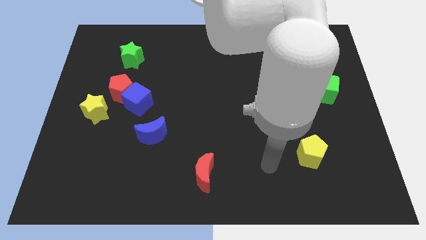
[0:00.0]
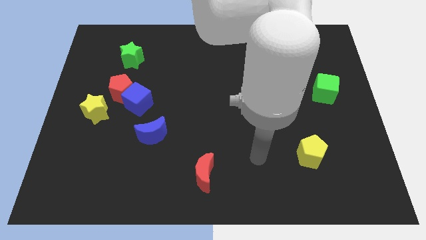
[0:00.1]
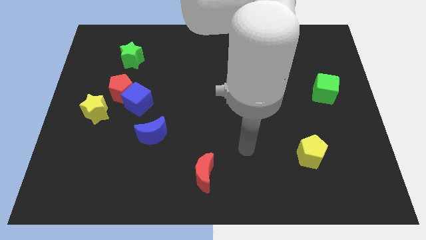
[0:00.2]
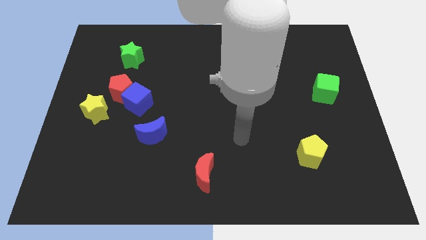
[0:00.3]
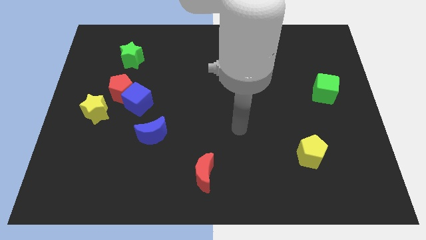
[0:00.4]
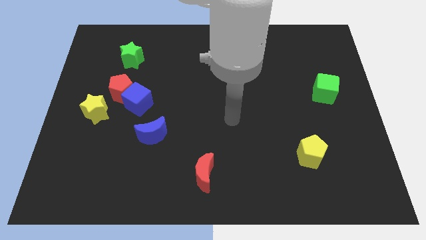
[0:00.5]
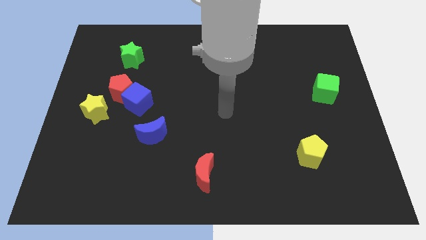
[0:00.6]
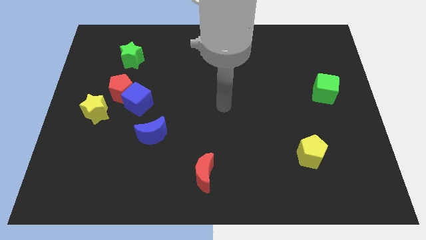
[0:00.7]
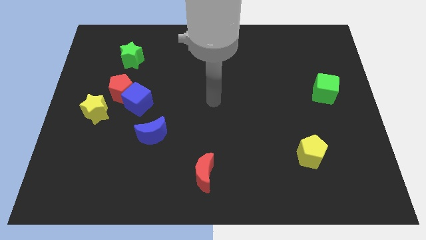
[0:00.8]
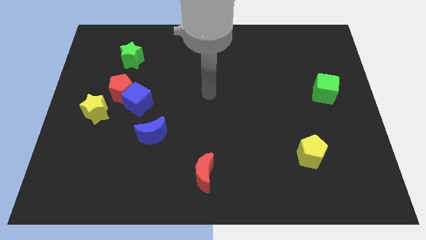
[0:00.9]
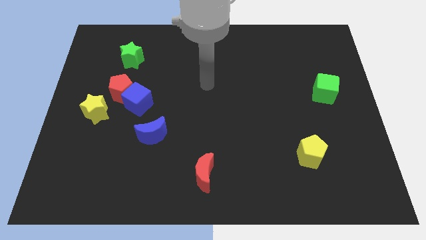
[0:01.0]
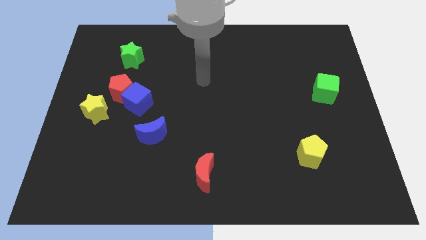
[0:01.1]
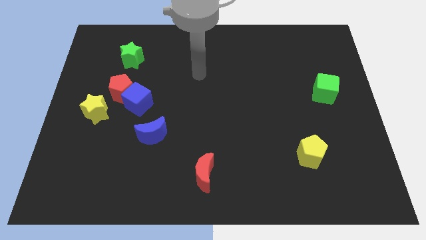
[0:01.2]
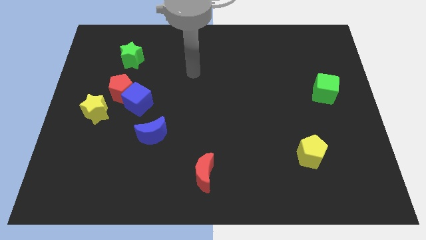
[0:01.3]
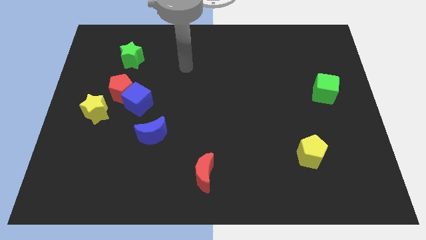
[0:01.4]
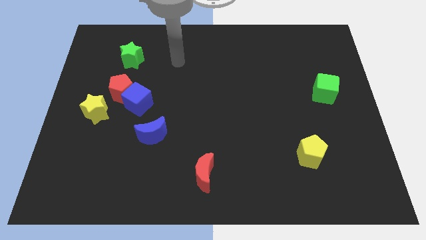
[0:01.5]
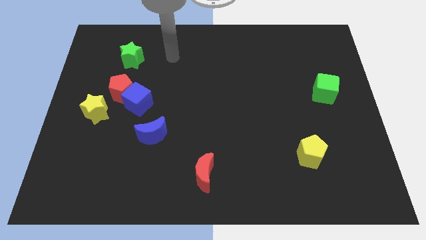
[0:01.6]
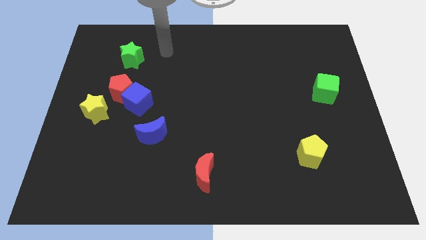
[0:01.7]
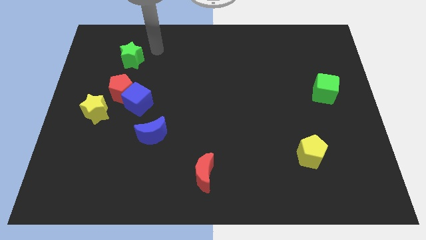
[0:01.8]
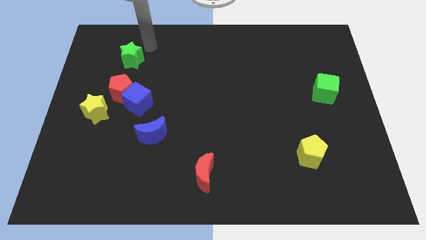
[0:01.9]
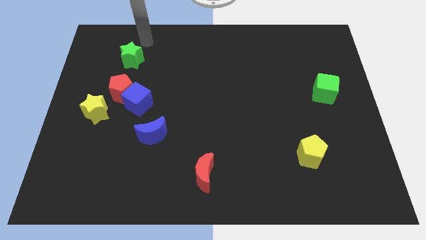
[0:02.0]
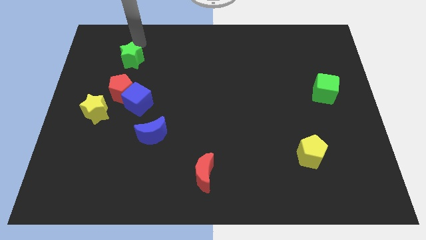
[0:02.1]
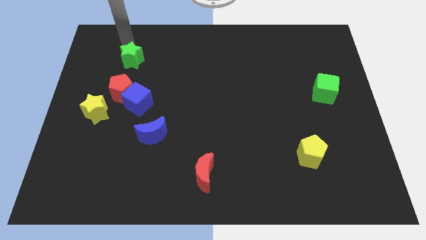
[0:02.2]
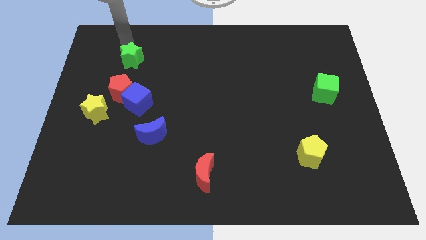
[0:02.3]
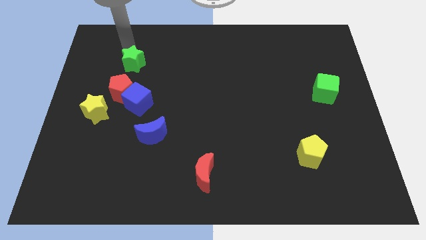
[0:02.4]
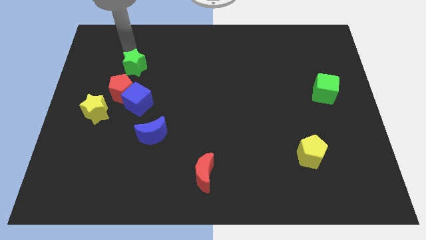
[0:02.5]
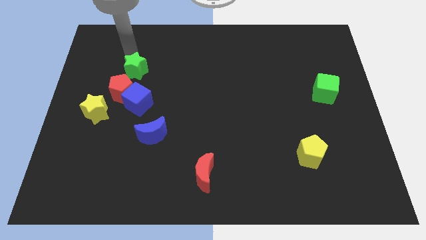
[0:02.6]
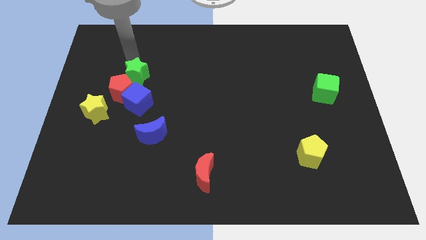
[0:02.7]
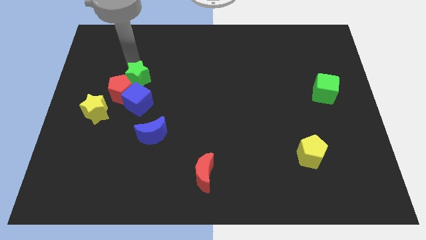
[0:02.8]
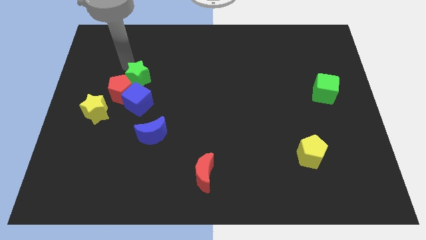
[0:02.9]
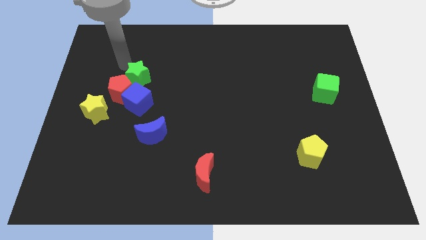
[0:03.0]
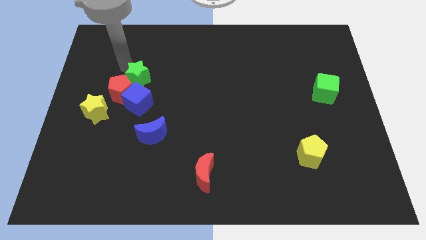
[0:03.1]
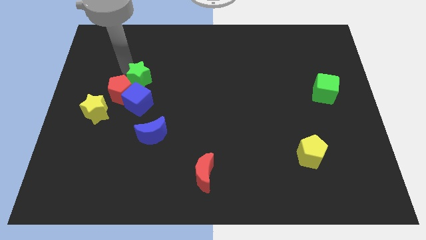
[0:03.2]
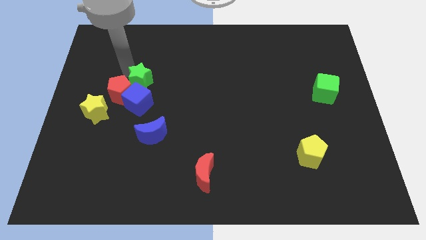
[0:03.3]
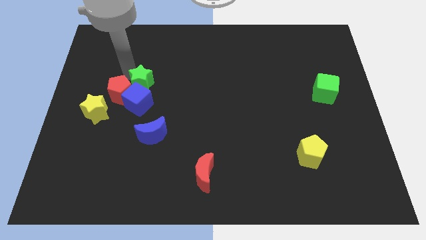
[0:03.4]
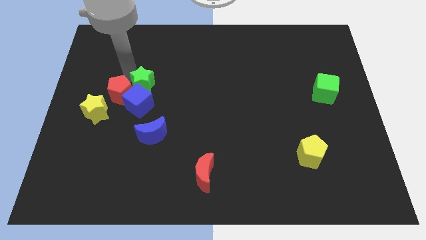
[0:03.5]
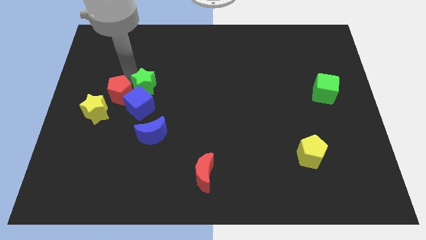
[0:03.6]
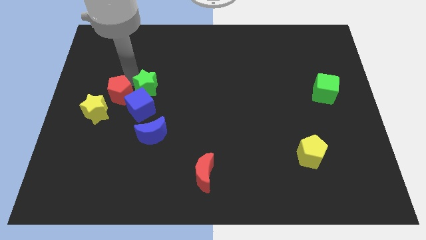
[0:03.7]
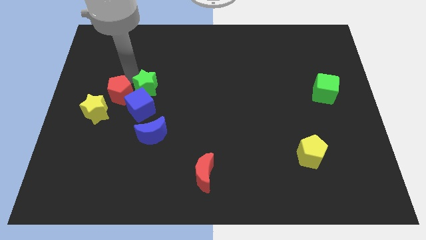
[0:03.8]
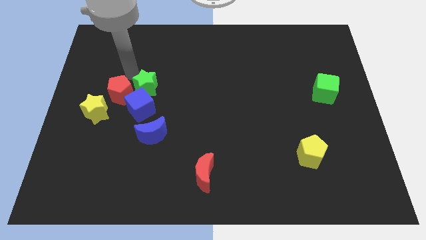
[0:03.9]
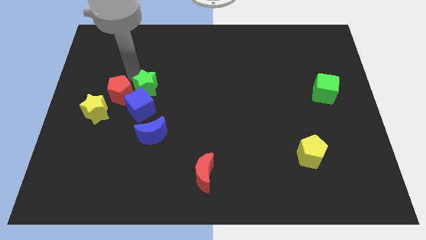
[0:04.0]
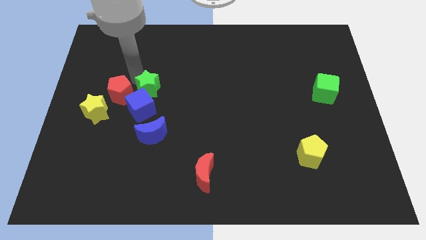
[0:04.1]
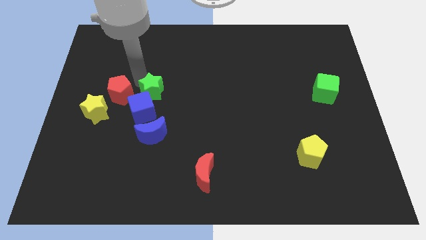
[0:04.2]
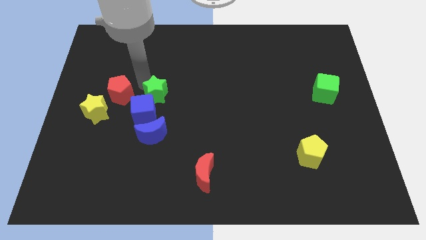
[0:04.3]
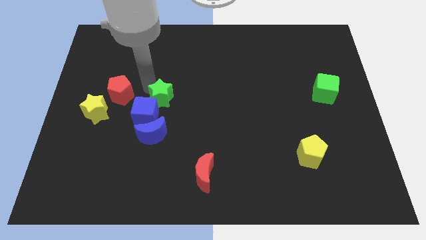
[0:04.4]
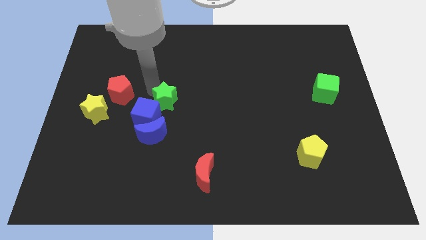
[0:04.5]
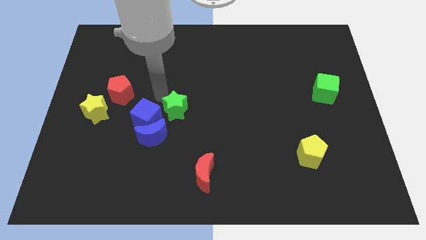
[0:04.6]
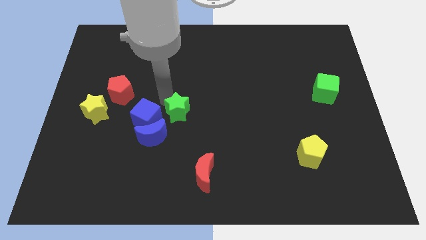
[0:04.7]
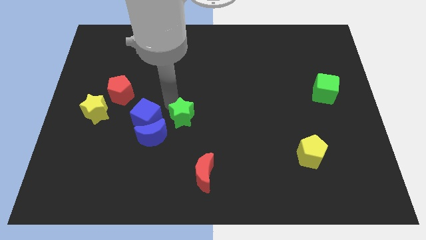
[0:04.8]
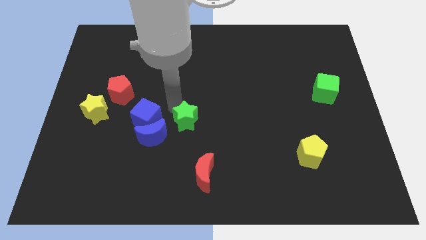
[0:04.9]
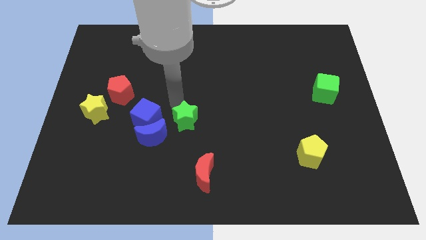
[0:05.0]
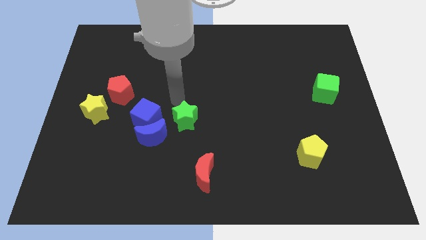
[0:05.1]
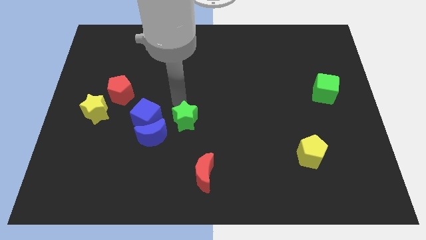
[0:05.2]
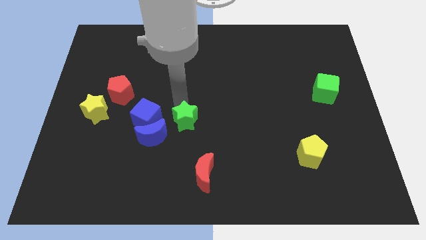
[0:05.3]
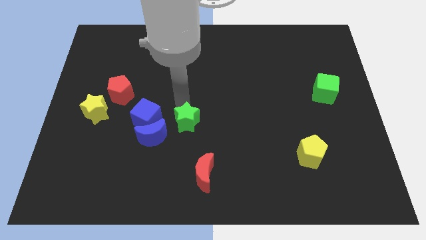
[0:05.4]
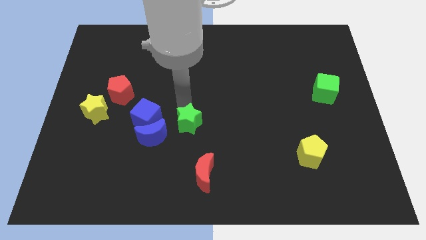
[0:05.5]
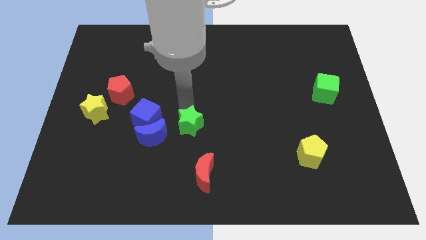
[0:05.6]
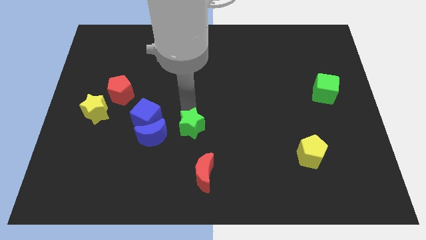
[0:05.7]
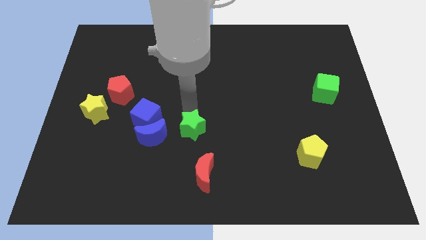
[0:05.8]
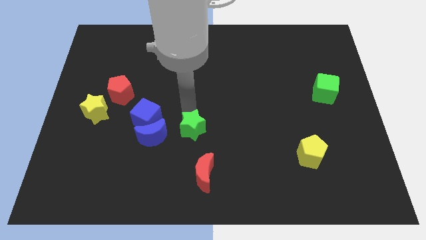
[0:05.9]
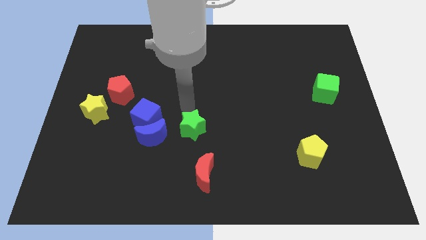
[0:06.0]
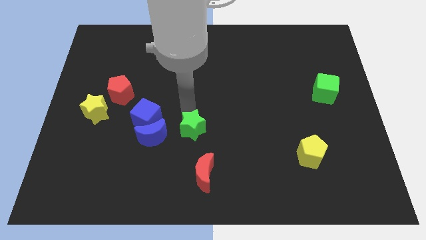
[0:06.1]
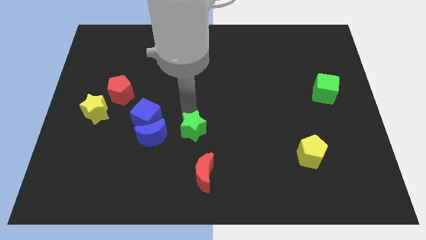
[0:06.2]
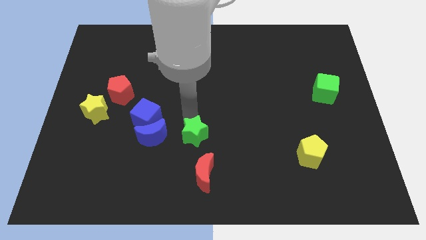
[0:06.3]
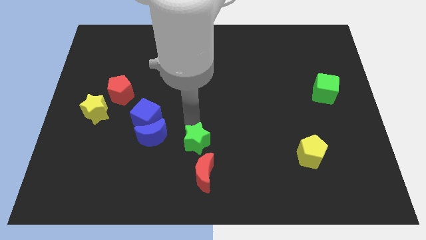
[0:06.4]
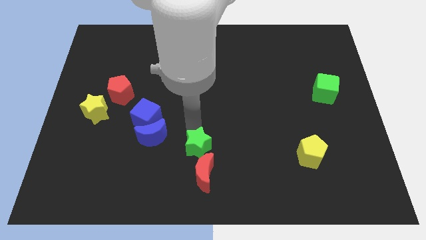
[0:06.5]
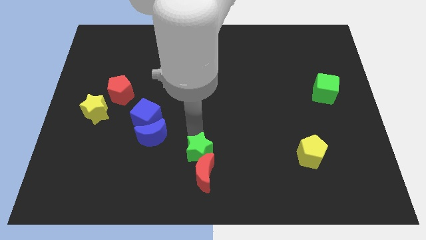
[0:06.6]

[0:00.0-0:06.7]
move the green star towards the red moon
